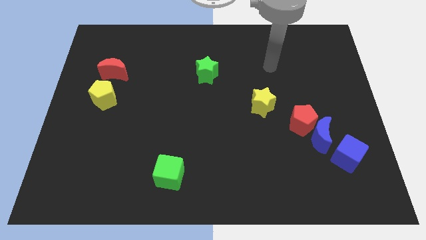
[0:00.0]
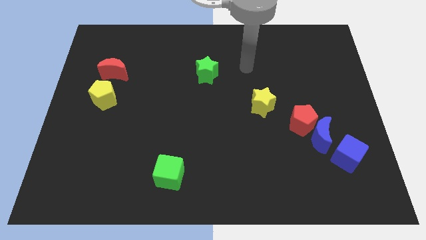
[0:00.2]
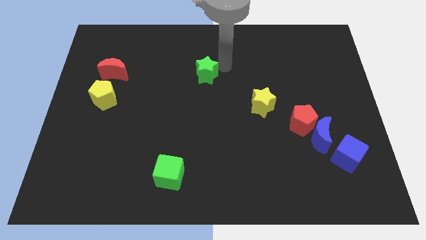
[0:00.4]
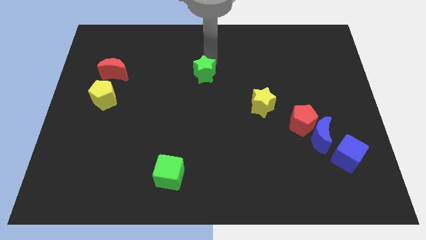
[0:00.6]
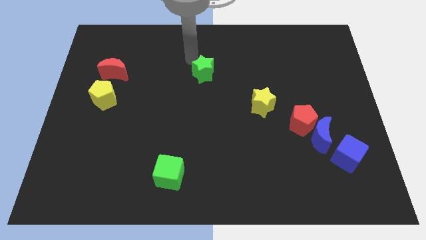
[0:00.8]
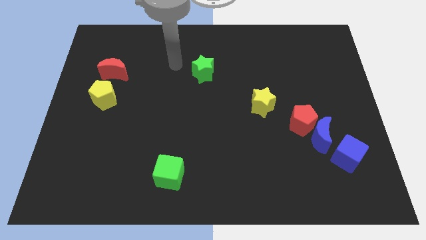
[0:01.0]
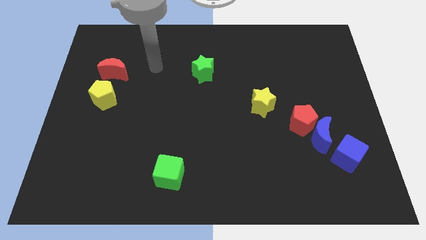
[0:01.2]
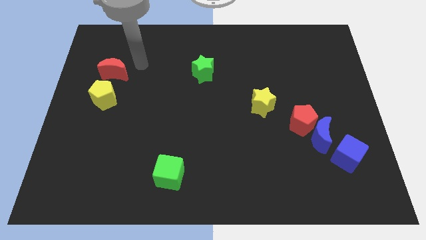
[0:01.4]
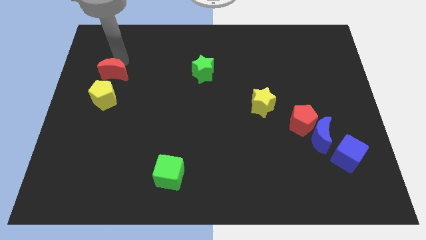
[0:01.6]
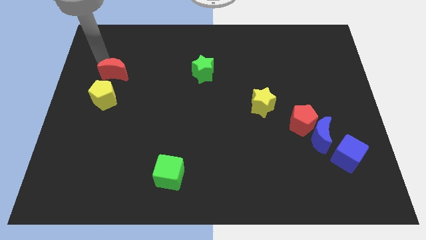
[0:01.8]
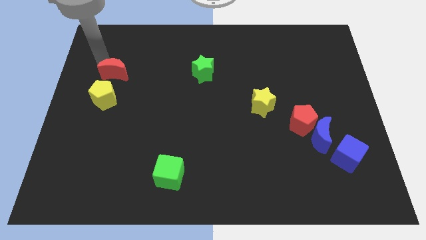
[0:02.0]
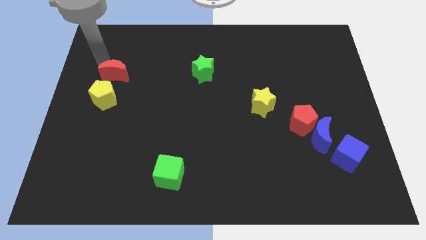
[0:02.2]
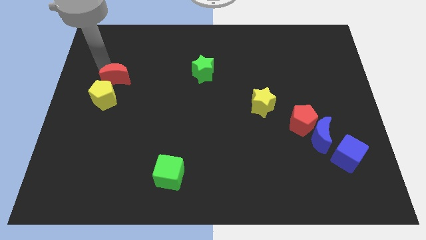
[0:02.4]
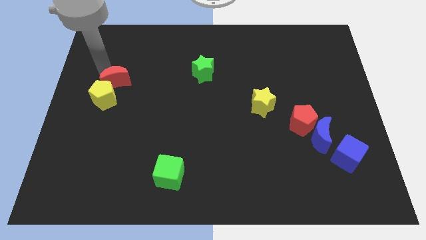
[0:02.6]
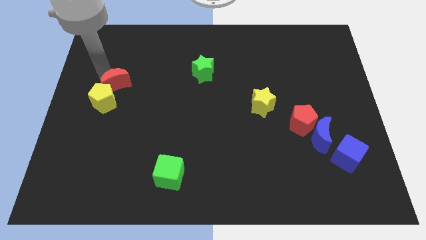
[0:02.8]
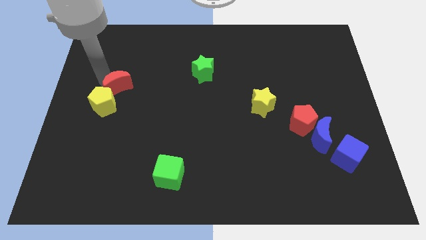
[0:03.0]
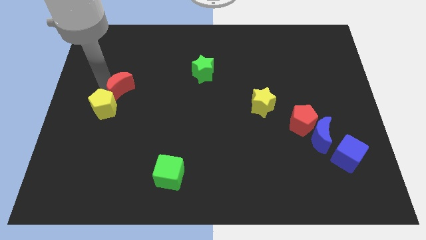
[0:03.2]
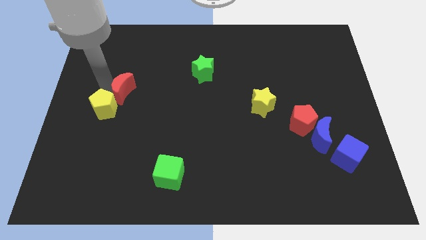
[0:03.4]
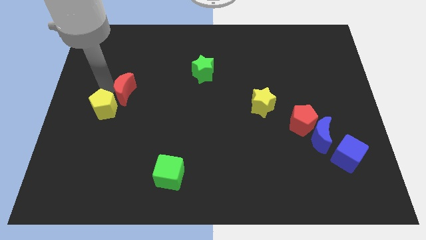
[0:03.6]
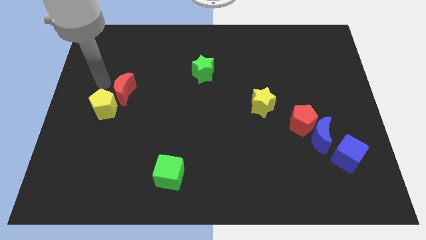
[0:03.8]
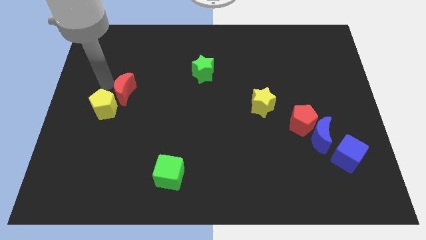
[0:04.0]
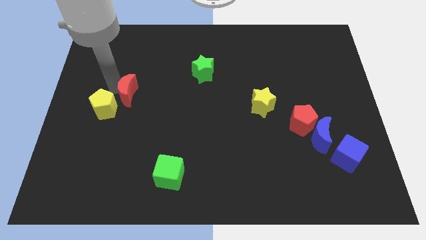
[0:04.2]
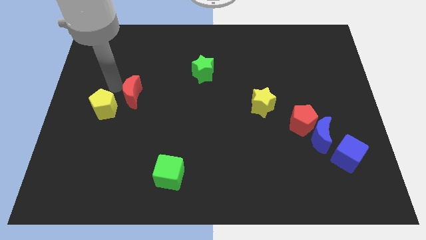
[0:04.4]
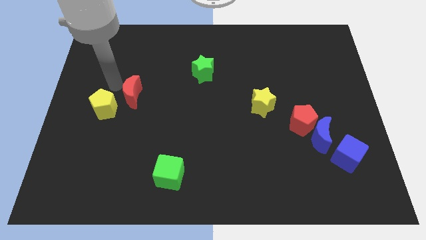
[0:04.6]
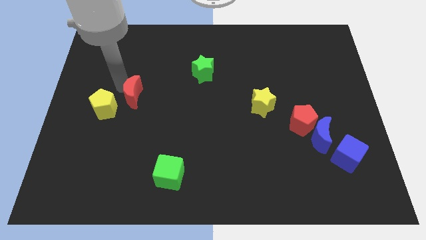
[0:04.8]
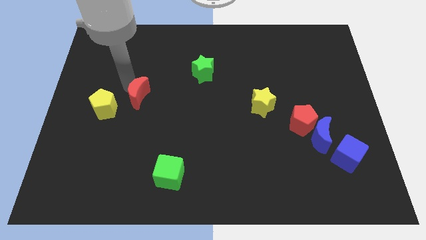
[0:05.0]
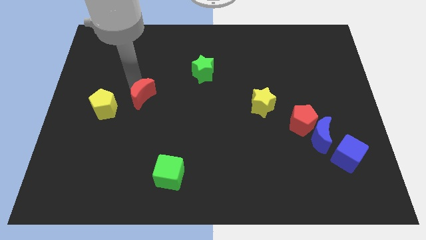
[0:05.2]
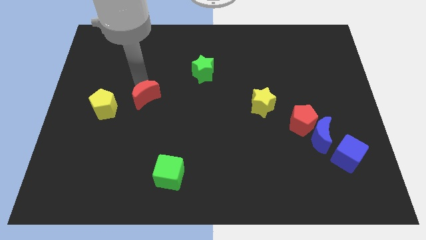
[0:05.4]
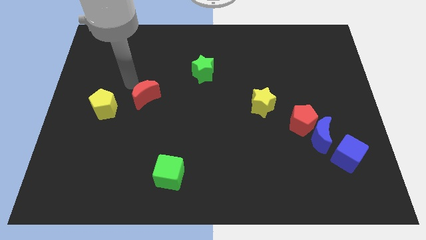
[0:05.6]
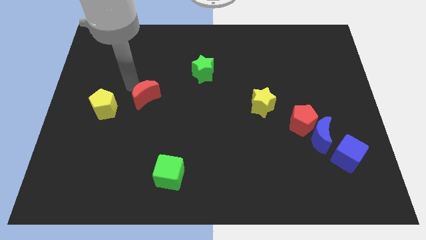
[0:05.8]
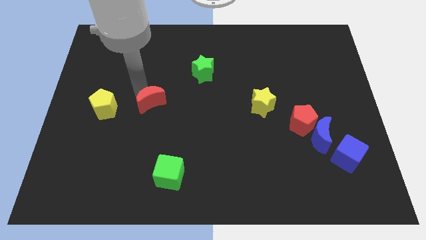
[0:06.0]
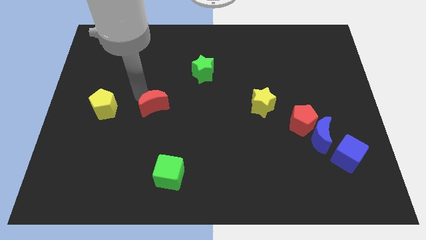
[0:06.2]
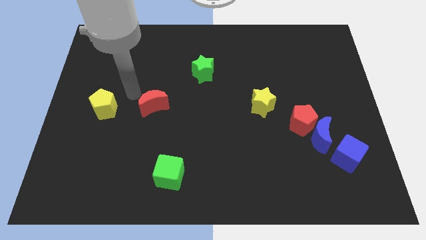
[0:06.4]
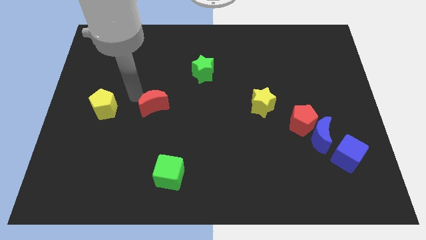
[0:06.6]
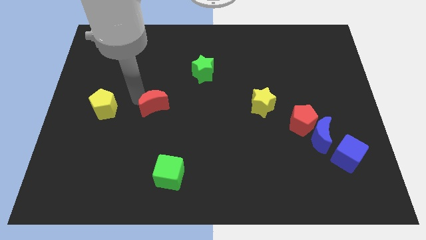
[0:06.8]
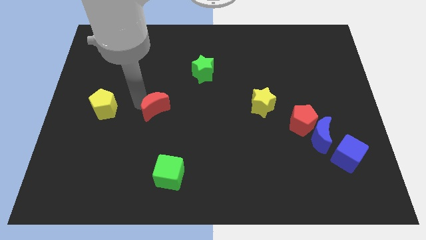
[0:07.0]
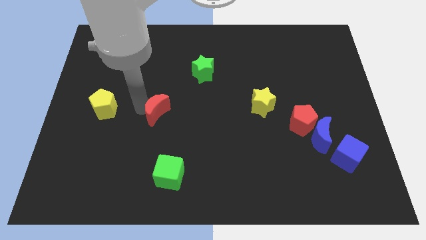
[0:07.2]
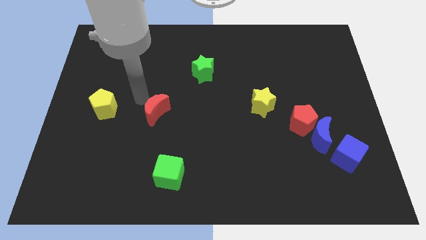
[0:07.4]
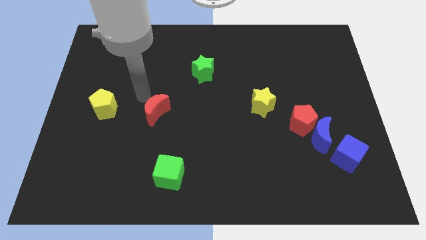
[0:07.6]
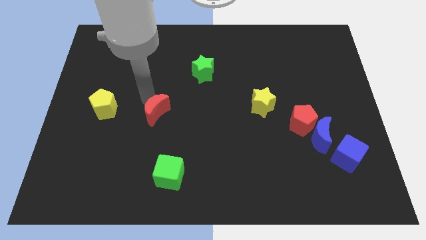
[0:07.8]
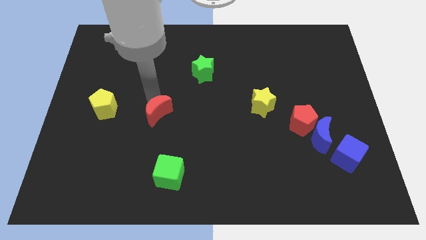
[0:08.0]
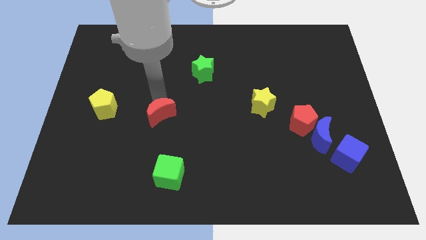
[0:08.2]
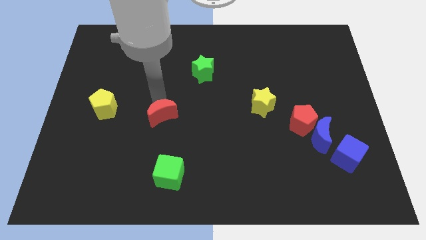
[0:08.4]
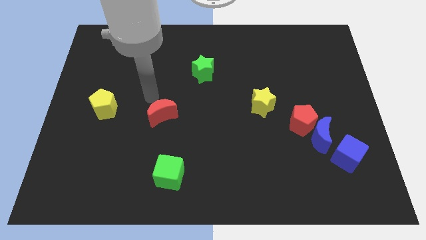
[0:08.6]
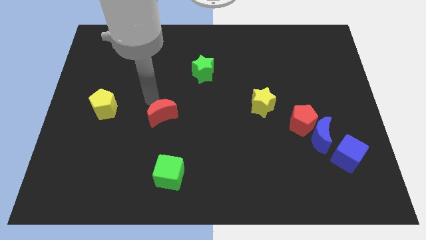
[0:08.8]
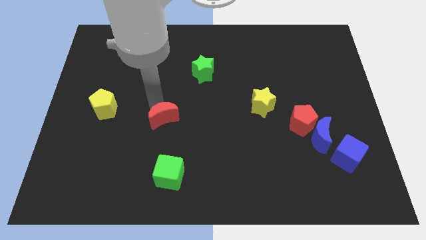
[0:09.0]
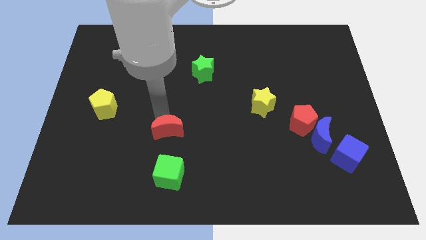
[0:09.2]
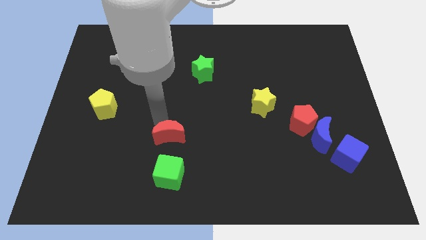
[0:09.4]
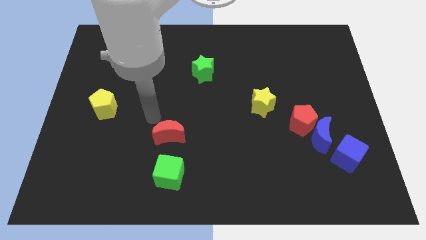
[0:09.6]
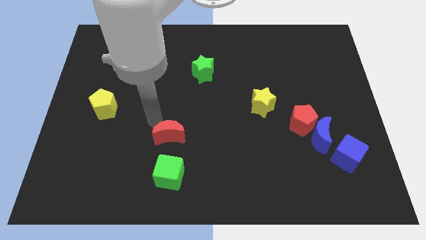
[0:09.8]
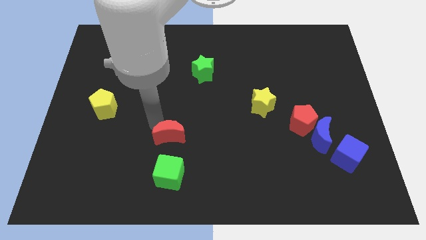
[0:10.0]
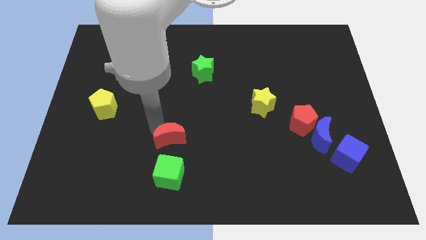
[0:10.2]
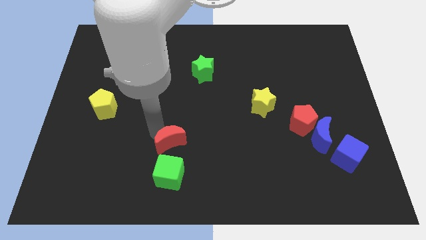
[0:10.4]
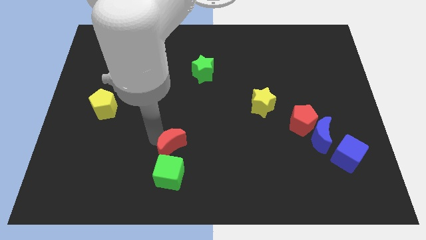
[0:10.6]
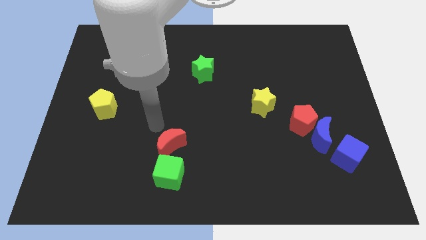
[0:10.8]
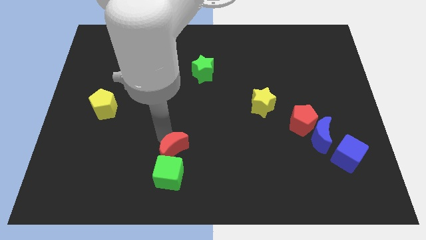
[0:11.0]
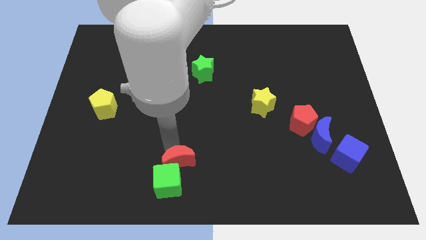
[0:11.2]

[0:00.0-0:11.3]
move the red moon to the bottom
